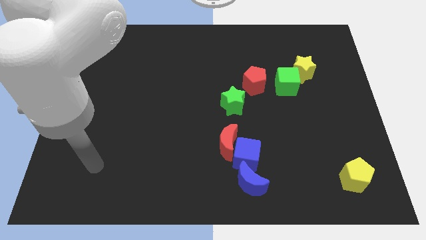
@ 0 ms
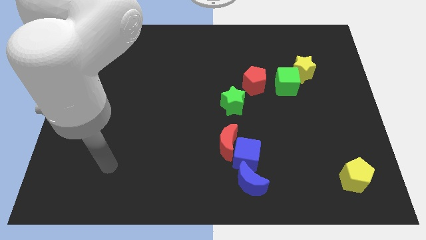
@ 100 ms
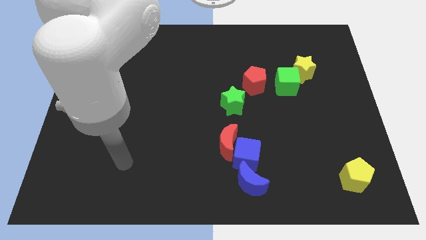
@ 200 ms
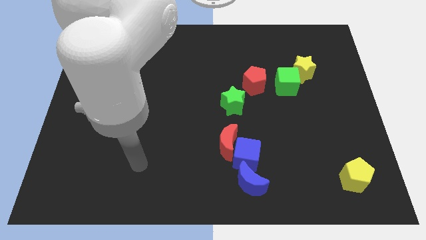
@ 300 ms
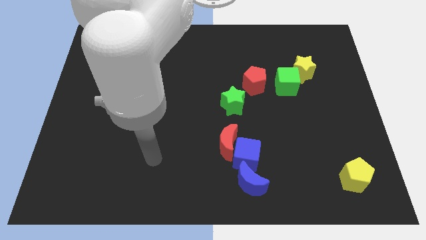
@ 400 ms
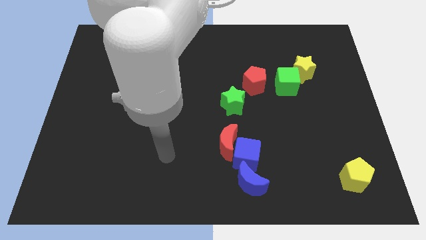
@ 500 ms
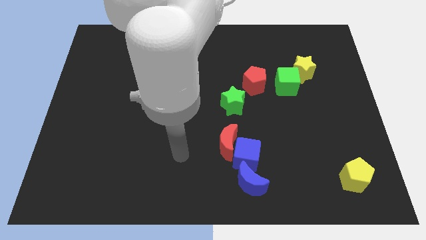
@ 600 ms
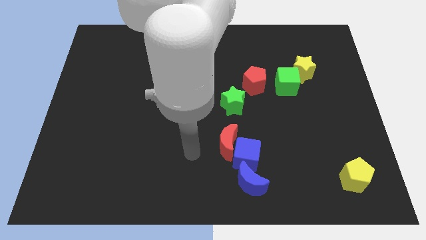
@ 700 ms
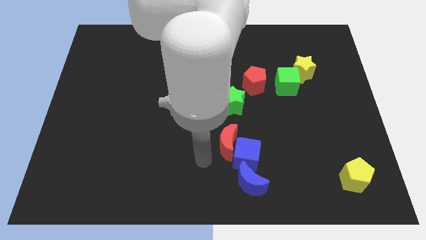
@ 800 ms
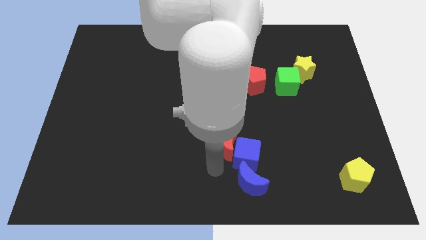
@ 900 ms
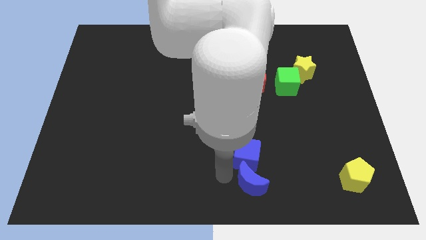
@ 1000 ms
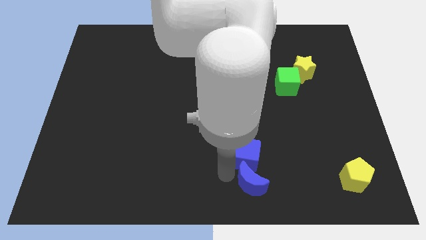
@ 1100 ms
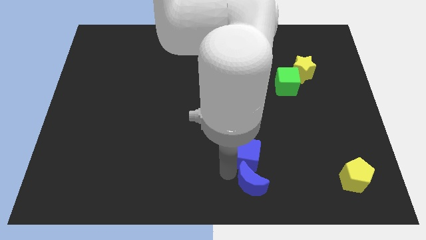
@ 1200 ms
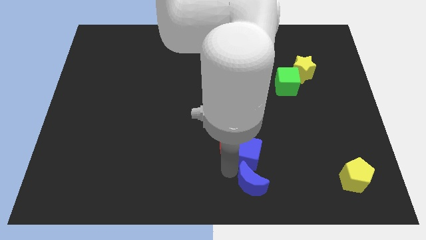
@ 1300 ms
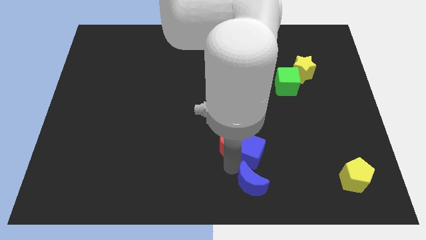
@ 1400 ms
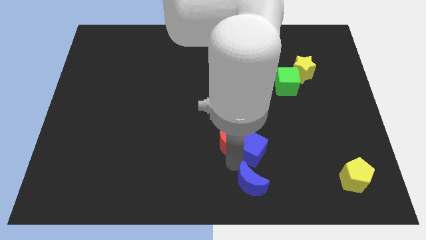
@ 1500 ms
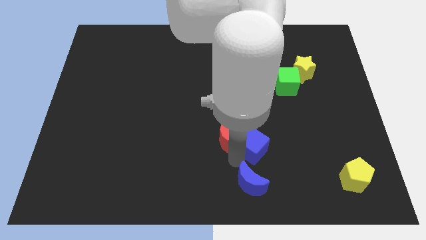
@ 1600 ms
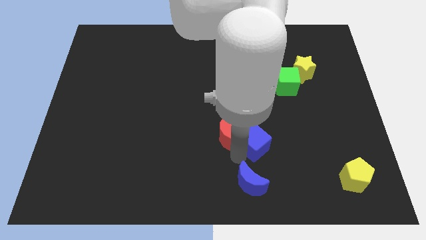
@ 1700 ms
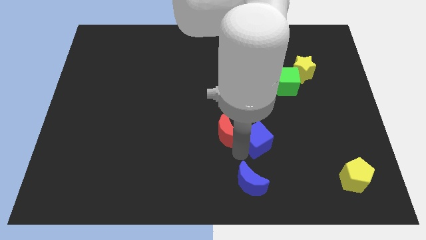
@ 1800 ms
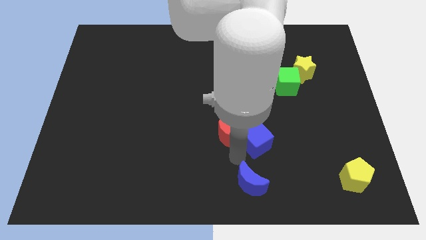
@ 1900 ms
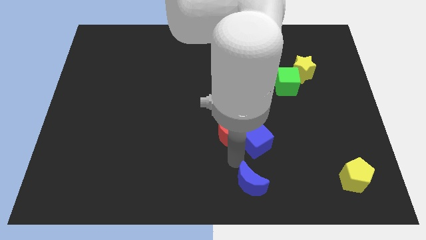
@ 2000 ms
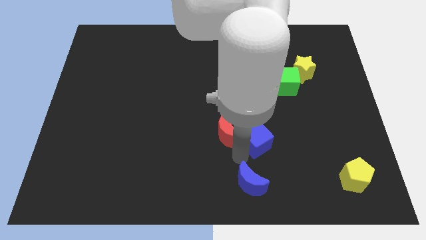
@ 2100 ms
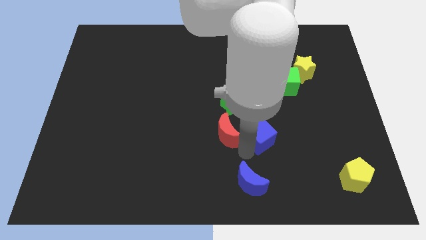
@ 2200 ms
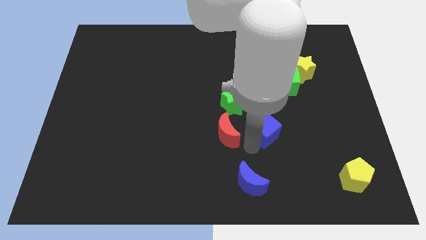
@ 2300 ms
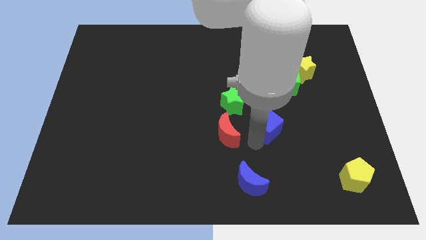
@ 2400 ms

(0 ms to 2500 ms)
pull the blue cube apart from the red moon and blue moon

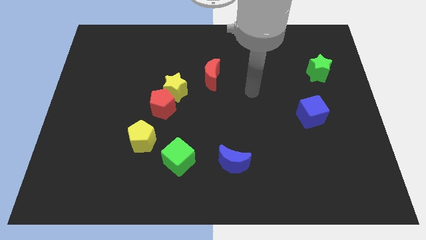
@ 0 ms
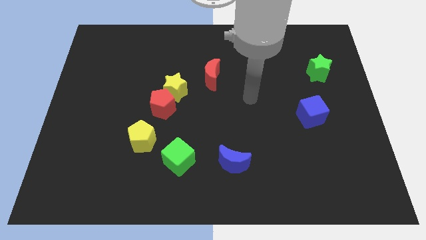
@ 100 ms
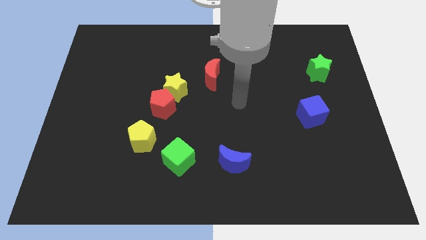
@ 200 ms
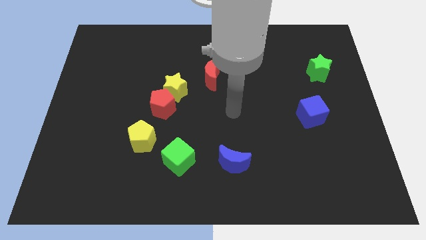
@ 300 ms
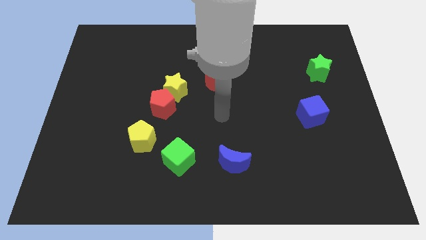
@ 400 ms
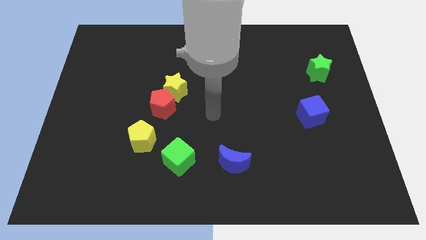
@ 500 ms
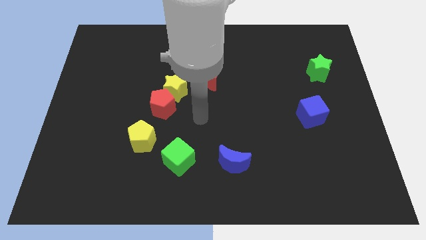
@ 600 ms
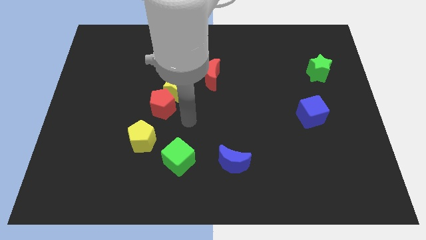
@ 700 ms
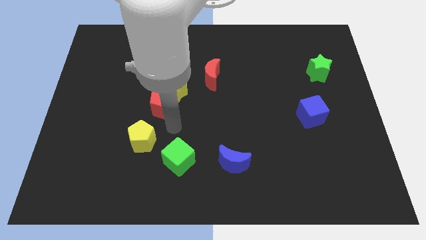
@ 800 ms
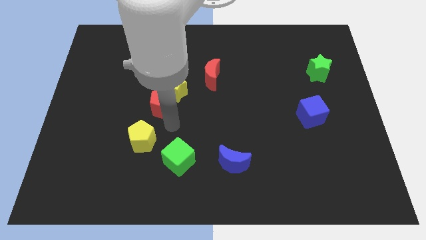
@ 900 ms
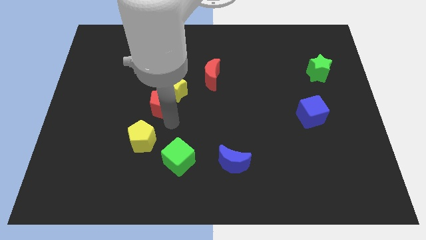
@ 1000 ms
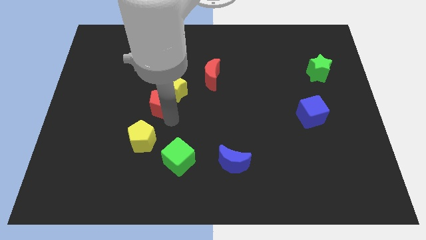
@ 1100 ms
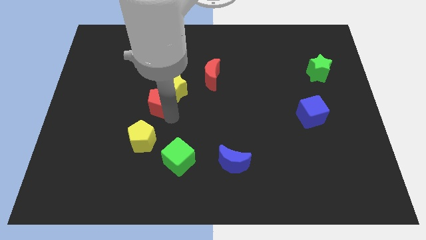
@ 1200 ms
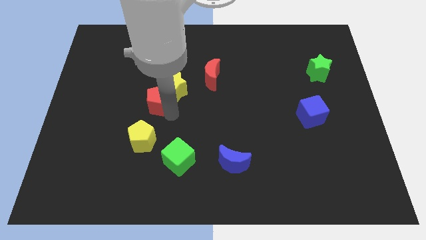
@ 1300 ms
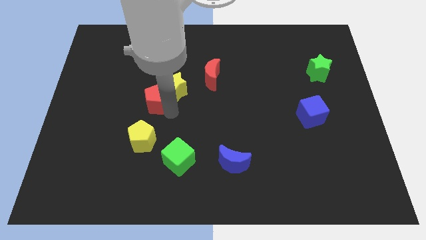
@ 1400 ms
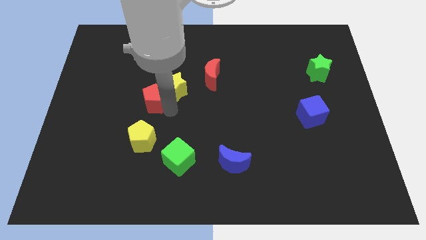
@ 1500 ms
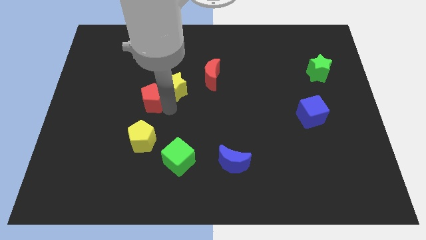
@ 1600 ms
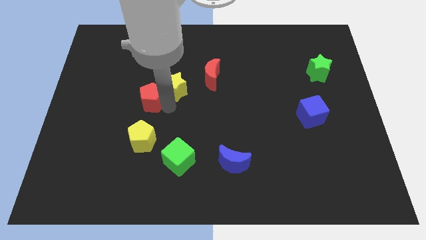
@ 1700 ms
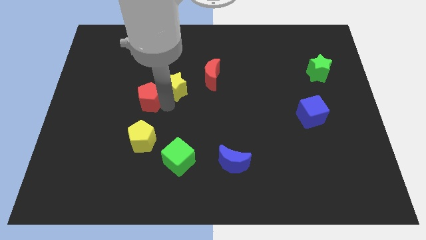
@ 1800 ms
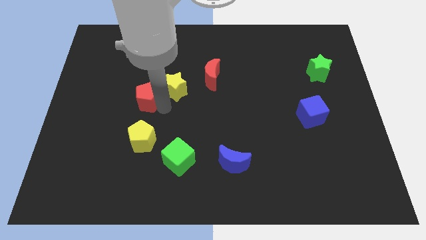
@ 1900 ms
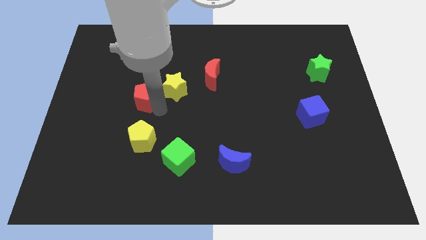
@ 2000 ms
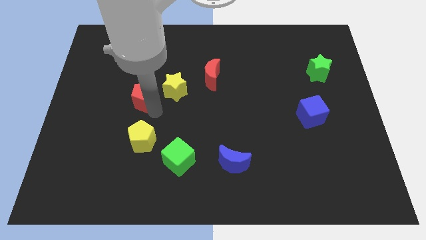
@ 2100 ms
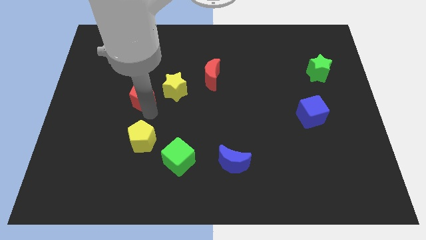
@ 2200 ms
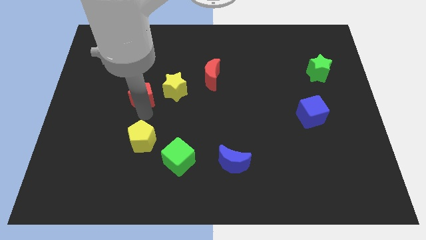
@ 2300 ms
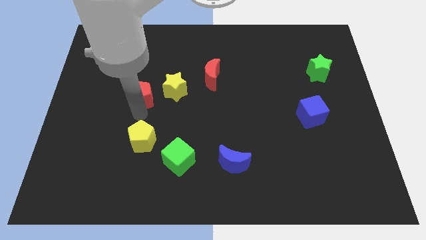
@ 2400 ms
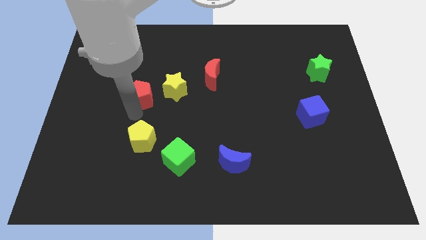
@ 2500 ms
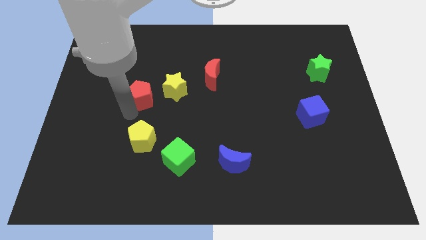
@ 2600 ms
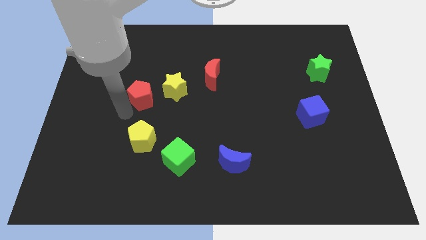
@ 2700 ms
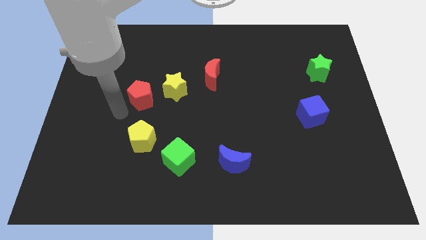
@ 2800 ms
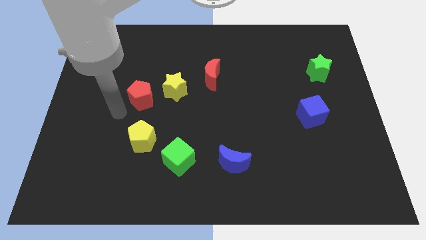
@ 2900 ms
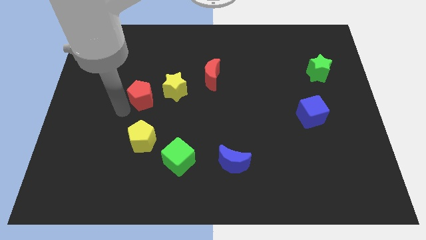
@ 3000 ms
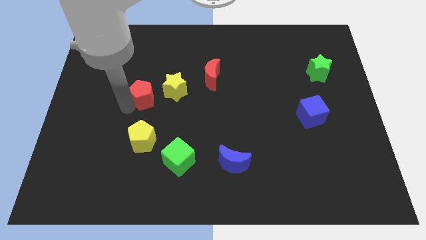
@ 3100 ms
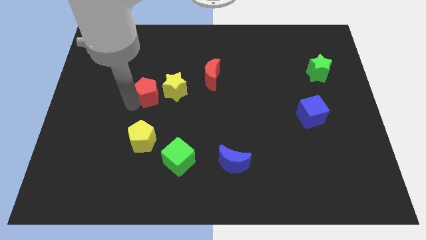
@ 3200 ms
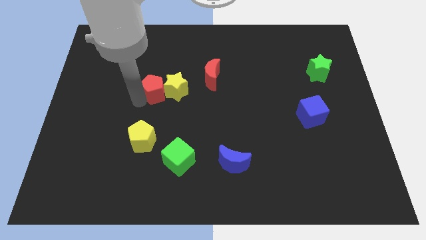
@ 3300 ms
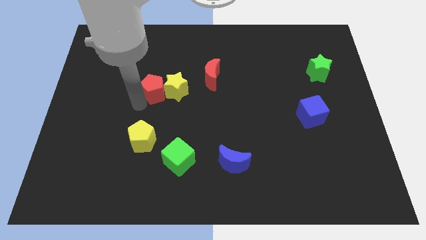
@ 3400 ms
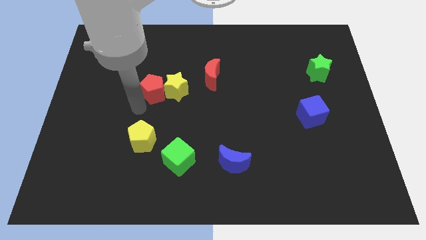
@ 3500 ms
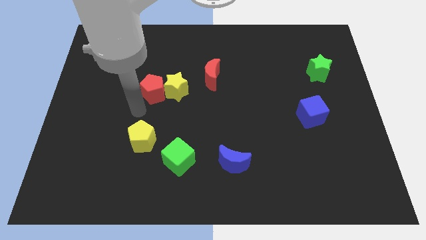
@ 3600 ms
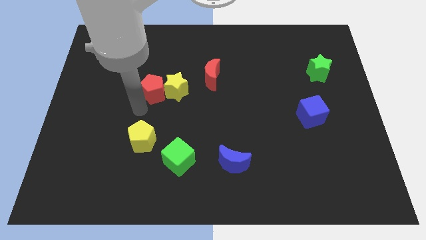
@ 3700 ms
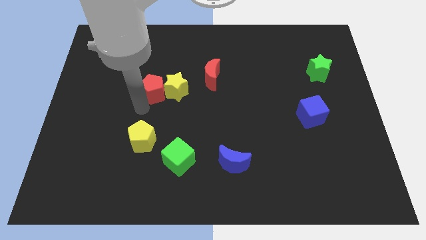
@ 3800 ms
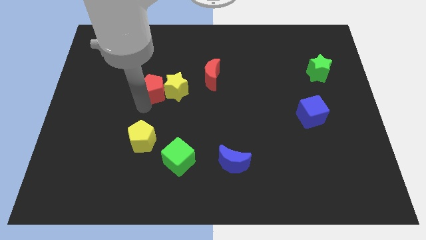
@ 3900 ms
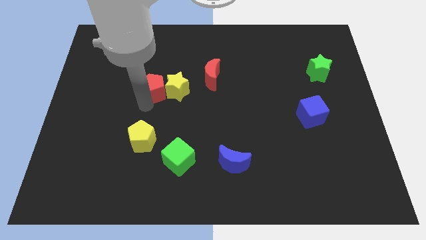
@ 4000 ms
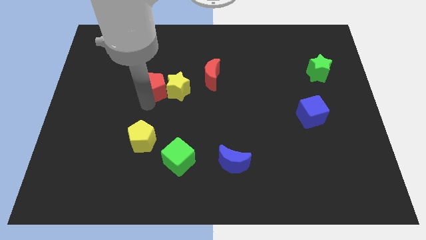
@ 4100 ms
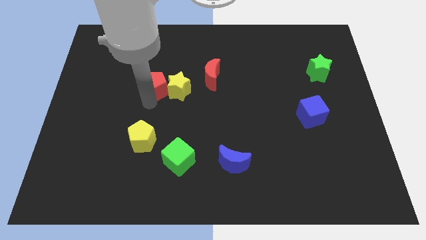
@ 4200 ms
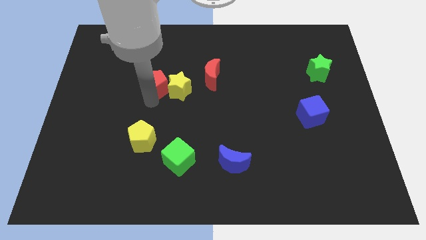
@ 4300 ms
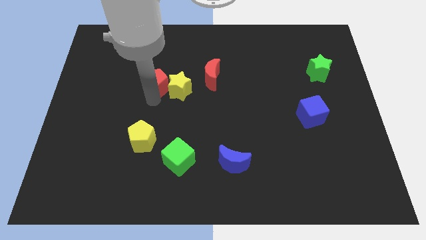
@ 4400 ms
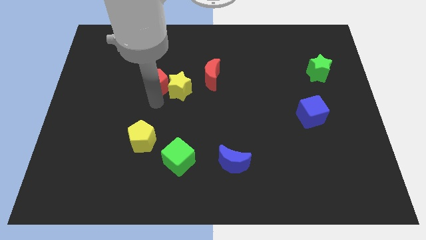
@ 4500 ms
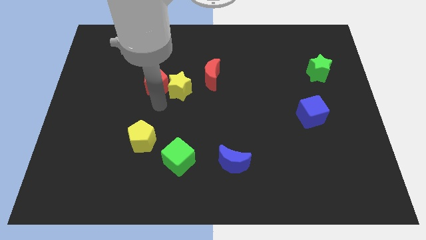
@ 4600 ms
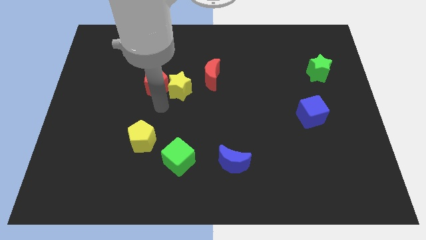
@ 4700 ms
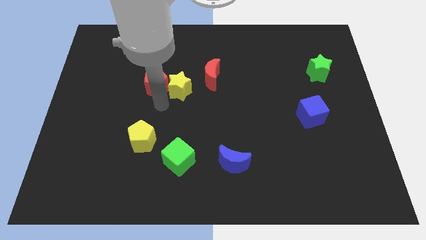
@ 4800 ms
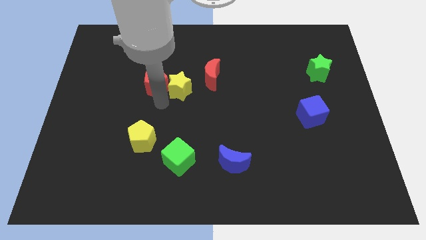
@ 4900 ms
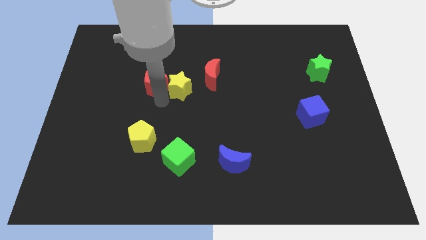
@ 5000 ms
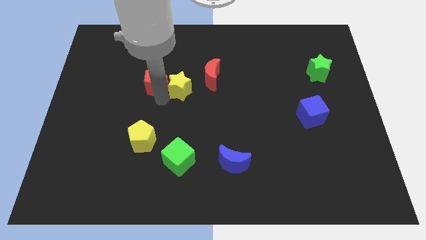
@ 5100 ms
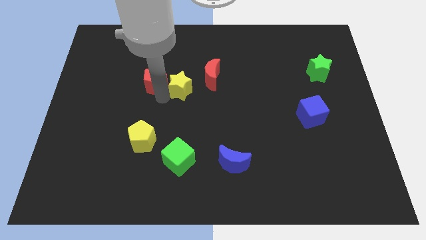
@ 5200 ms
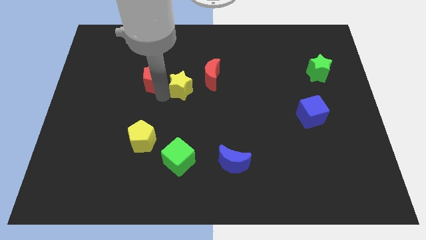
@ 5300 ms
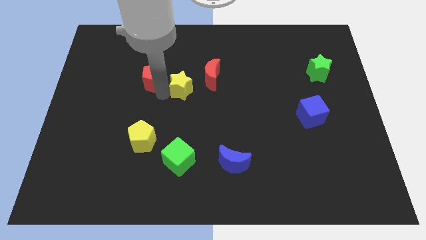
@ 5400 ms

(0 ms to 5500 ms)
pull the red pentagon apart from the yellow star and yellow pentagon

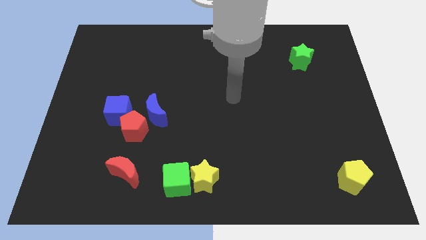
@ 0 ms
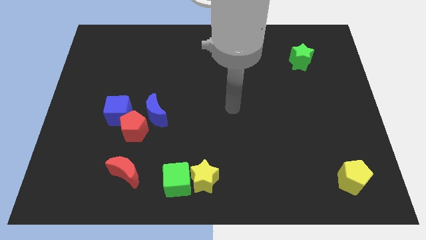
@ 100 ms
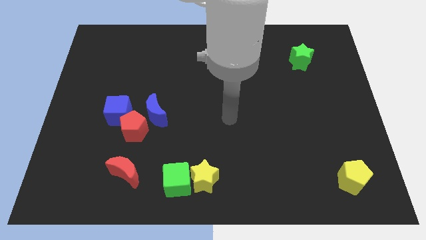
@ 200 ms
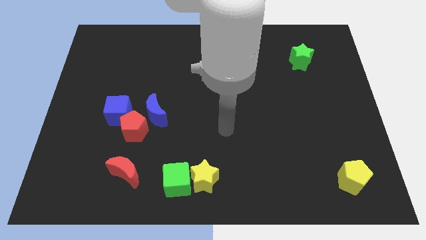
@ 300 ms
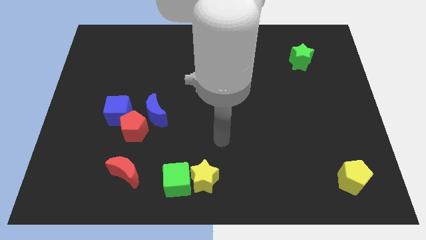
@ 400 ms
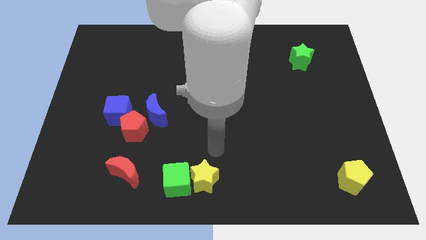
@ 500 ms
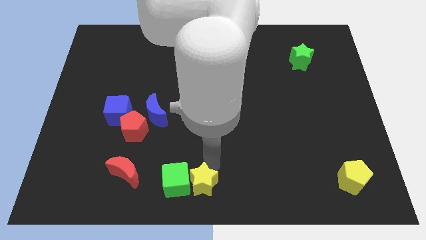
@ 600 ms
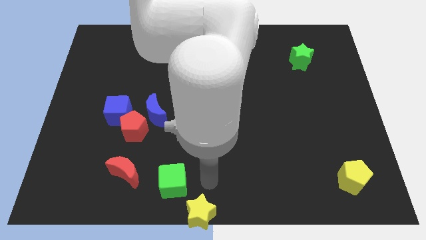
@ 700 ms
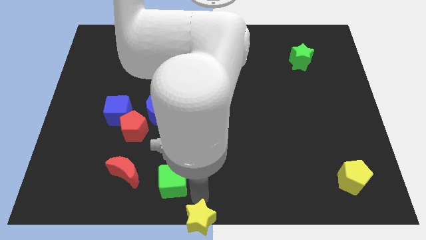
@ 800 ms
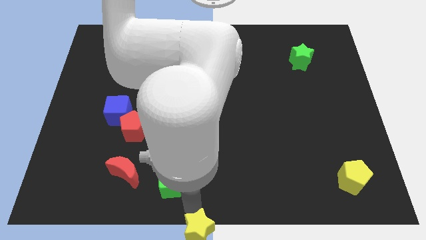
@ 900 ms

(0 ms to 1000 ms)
move the green cube away from the yellow star

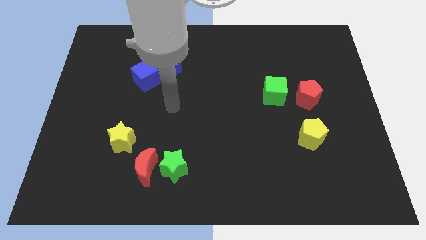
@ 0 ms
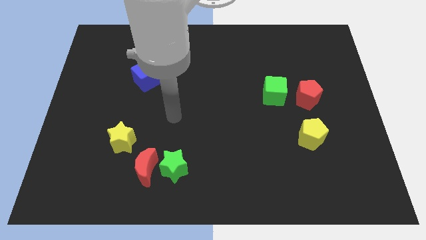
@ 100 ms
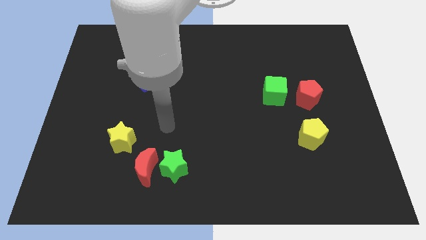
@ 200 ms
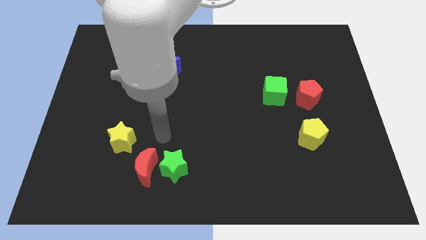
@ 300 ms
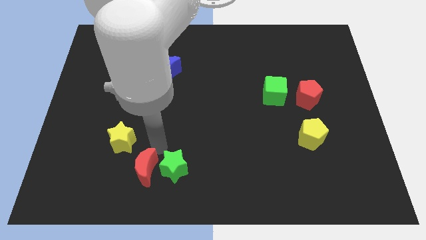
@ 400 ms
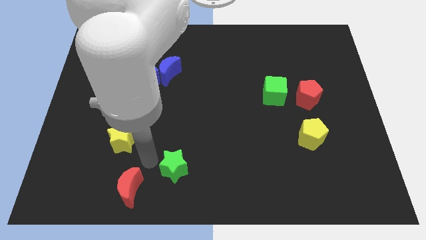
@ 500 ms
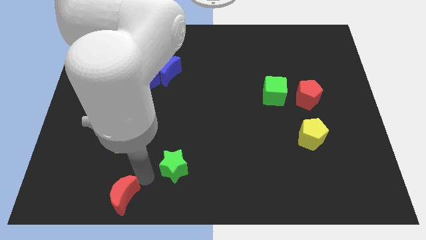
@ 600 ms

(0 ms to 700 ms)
separate the green star from the red moon
